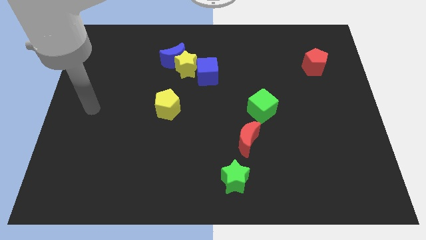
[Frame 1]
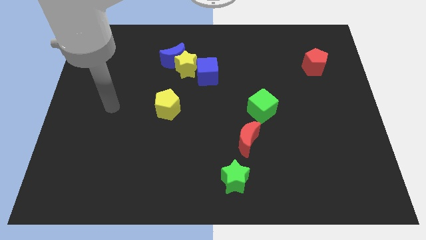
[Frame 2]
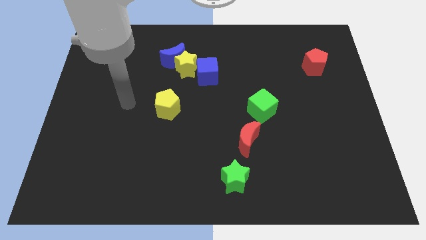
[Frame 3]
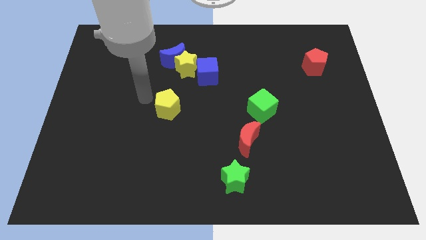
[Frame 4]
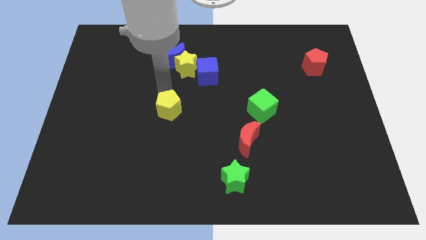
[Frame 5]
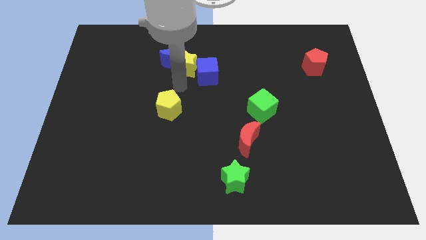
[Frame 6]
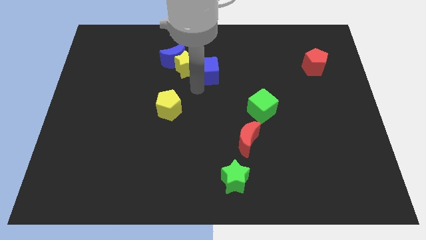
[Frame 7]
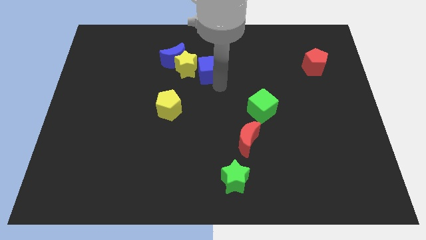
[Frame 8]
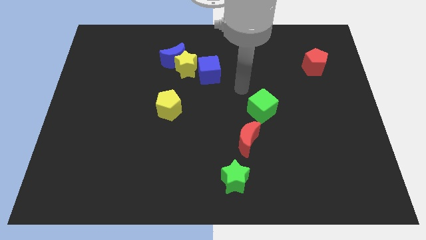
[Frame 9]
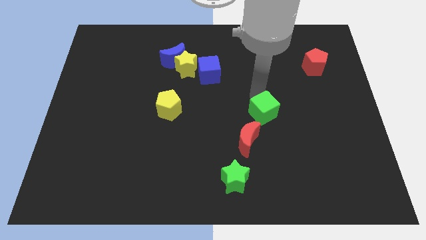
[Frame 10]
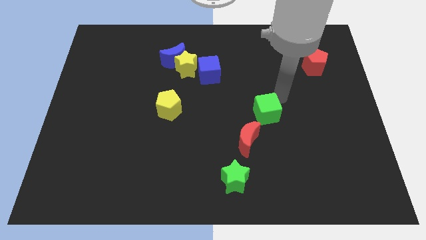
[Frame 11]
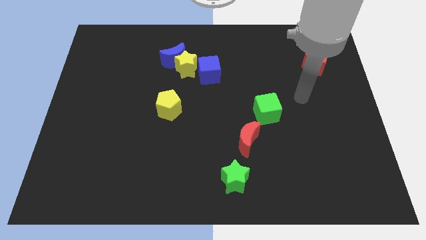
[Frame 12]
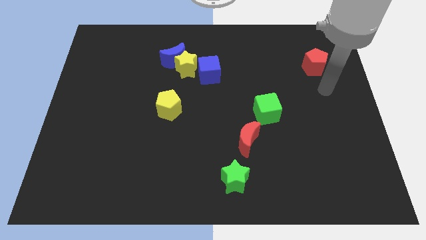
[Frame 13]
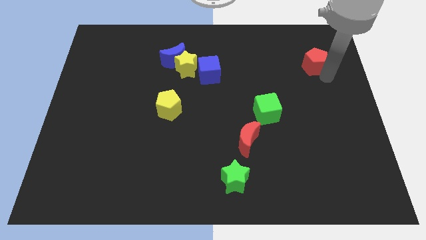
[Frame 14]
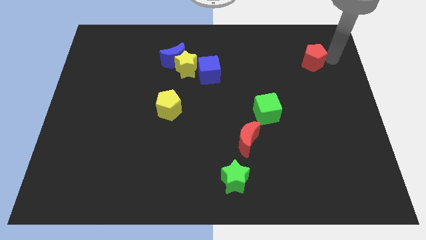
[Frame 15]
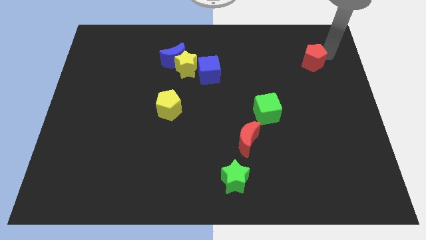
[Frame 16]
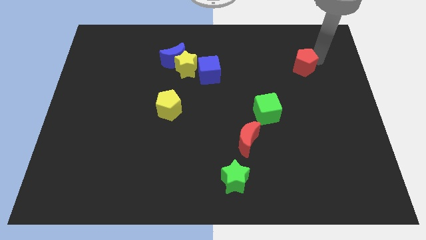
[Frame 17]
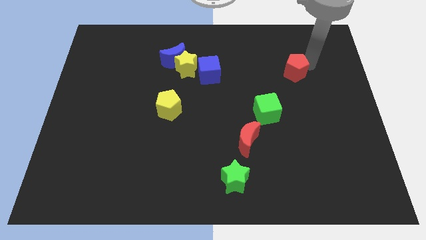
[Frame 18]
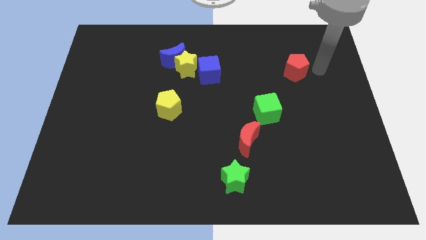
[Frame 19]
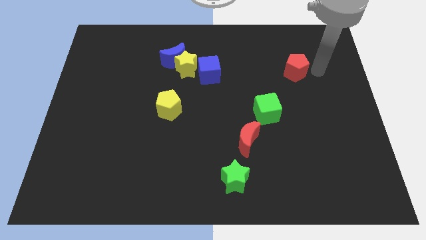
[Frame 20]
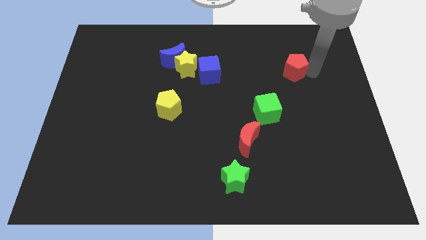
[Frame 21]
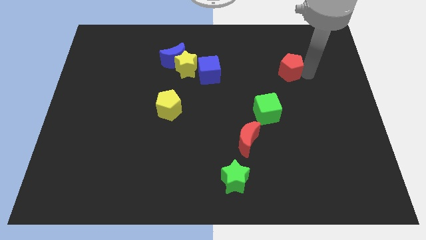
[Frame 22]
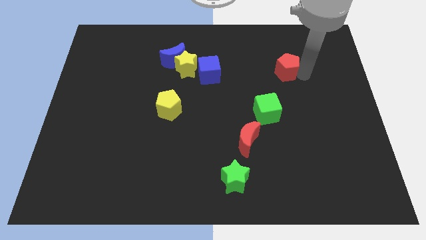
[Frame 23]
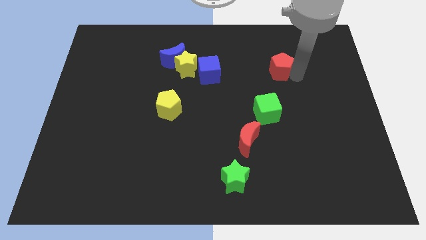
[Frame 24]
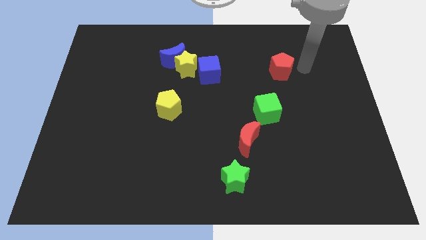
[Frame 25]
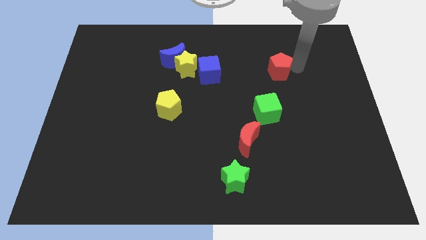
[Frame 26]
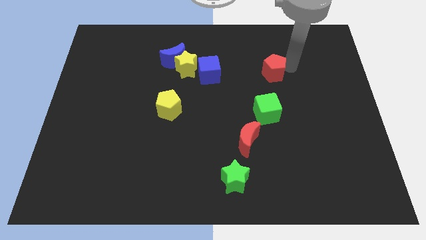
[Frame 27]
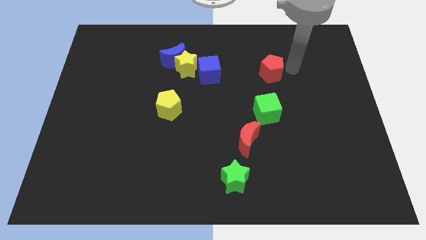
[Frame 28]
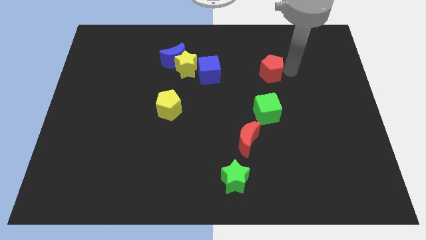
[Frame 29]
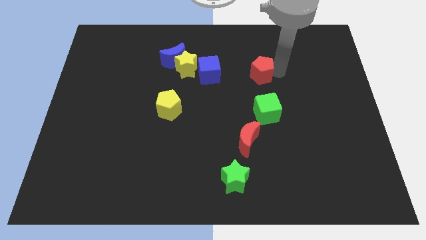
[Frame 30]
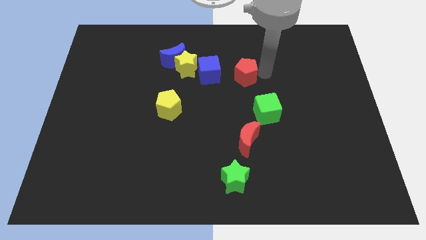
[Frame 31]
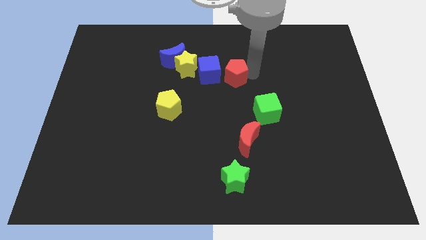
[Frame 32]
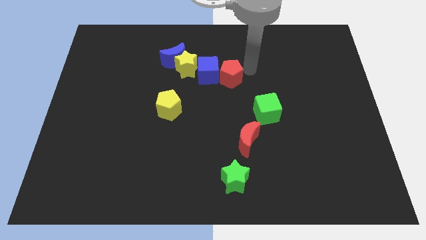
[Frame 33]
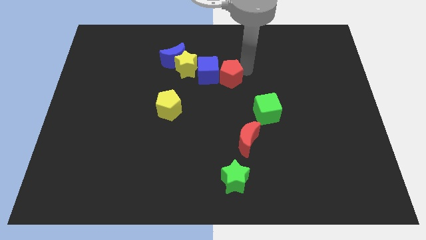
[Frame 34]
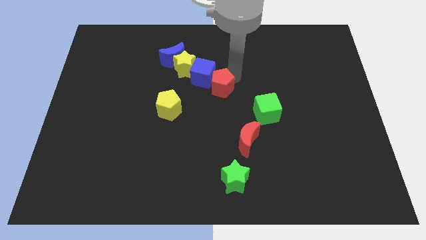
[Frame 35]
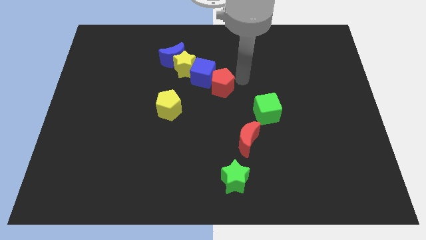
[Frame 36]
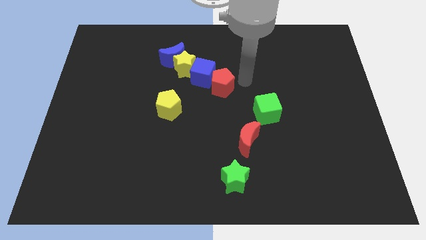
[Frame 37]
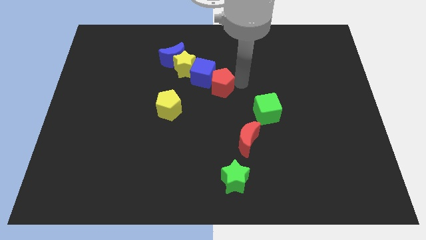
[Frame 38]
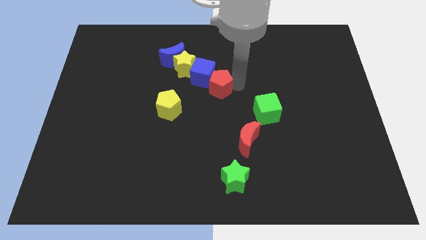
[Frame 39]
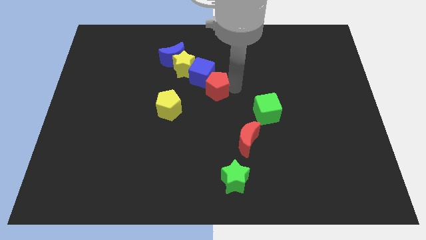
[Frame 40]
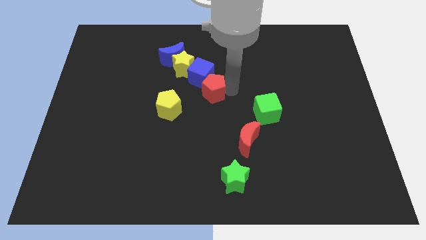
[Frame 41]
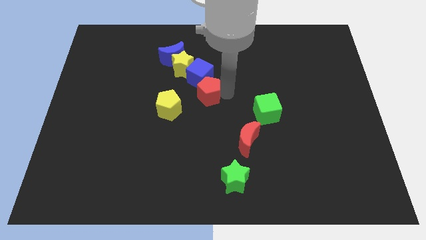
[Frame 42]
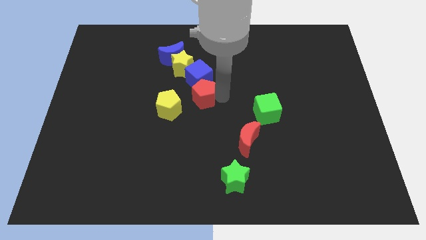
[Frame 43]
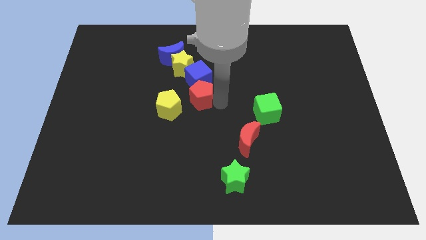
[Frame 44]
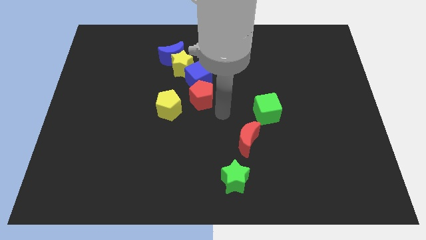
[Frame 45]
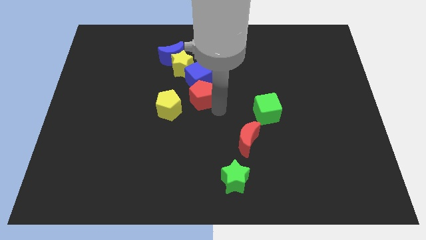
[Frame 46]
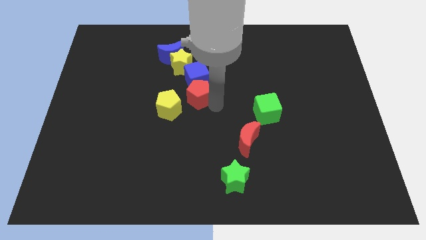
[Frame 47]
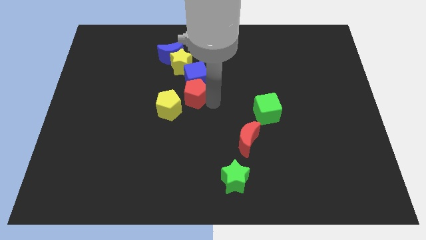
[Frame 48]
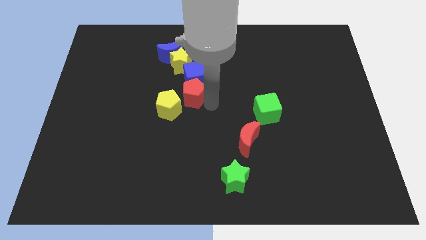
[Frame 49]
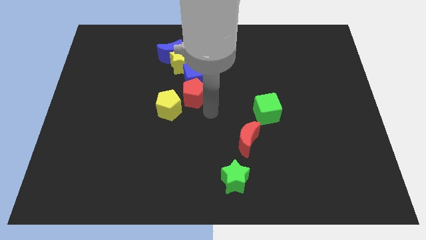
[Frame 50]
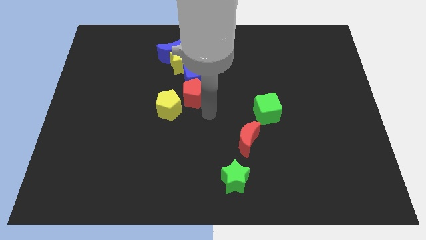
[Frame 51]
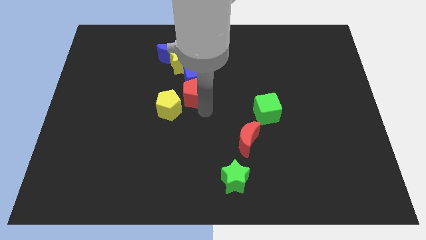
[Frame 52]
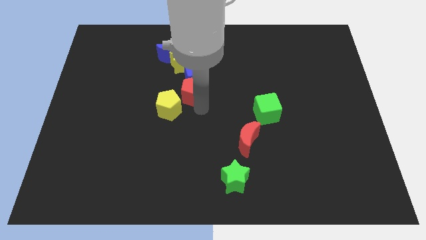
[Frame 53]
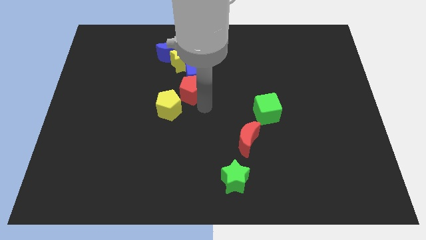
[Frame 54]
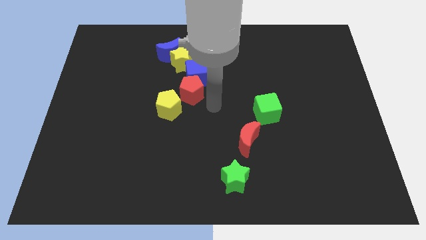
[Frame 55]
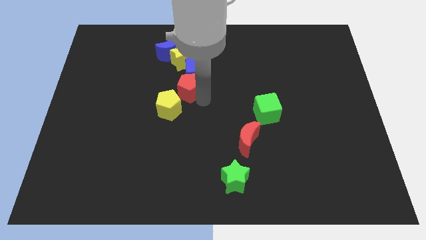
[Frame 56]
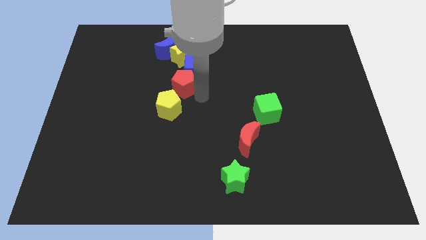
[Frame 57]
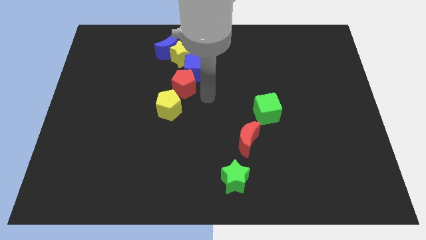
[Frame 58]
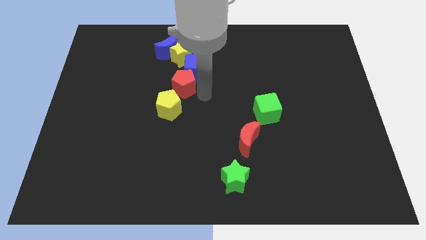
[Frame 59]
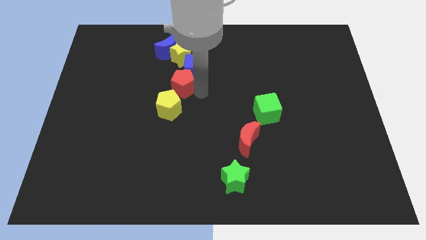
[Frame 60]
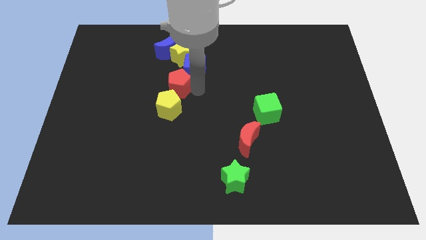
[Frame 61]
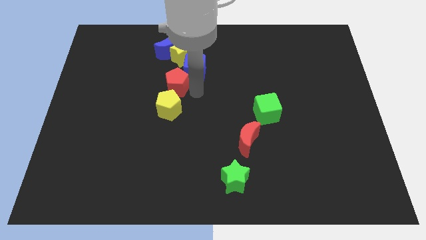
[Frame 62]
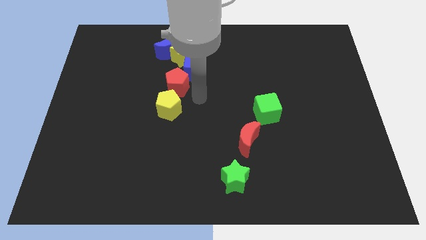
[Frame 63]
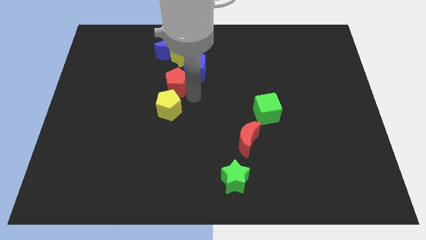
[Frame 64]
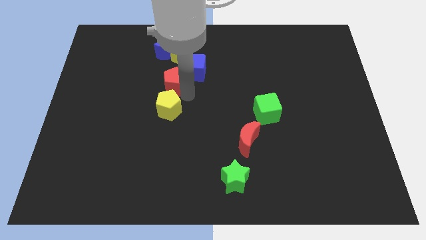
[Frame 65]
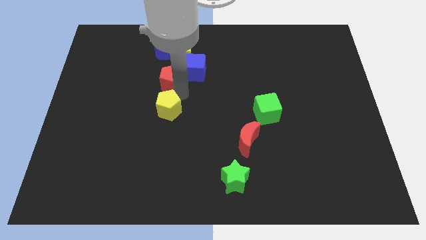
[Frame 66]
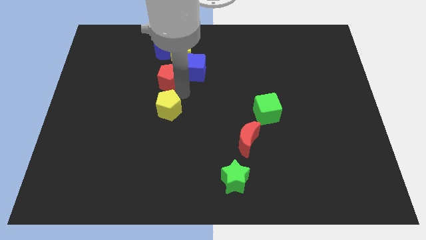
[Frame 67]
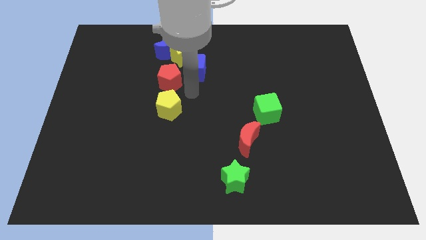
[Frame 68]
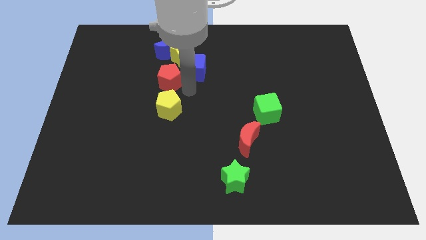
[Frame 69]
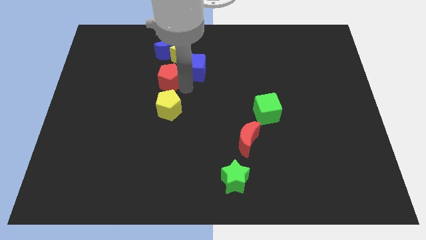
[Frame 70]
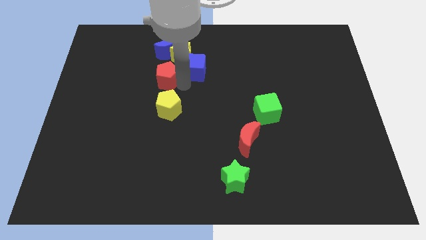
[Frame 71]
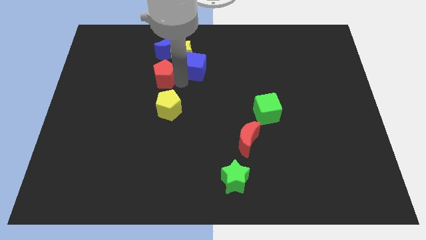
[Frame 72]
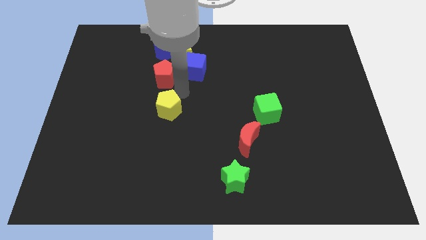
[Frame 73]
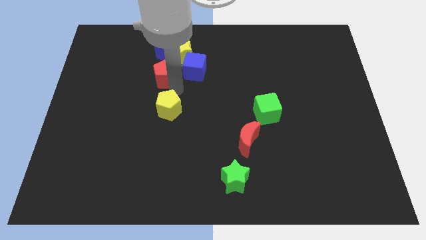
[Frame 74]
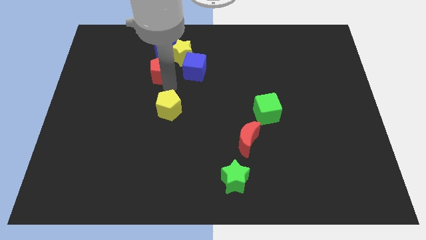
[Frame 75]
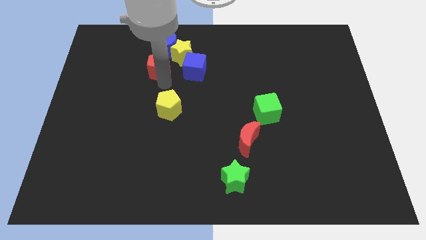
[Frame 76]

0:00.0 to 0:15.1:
slide the red pentagon to the left side of the yellow star

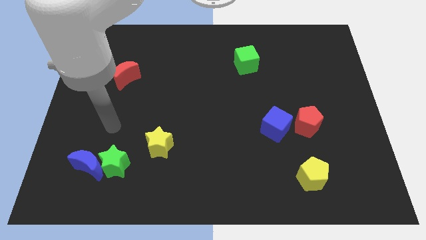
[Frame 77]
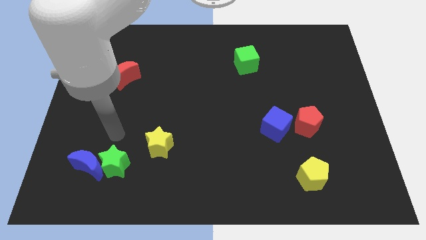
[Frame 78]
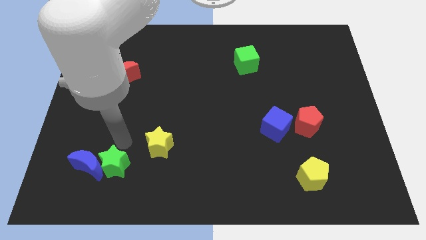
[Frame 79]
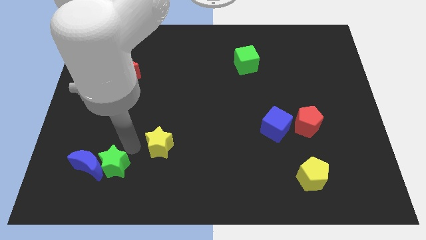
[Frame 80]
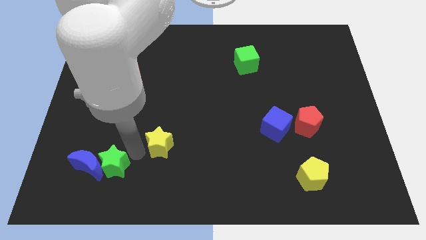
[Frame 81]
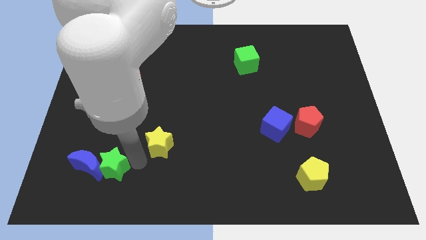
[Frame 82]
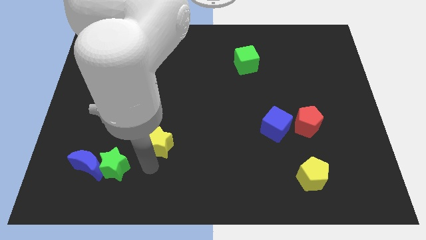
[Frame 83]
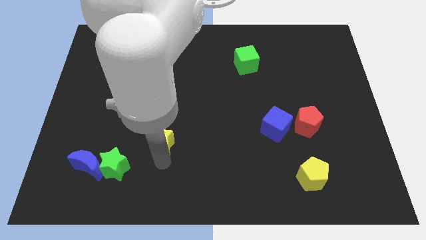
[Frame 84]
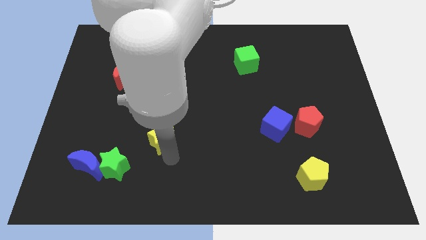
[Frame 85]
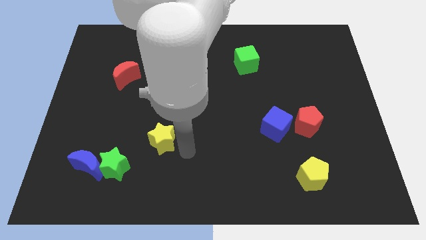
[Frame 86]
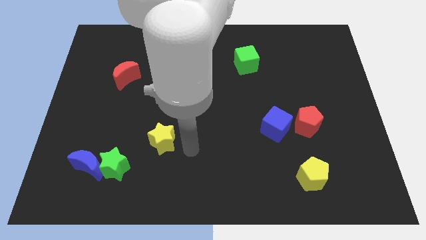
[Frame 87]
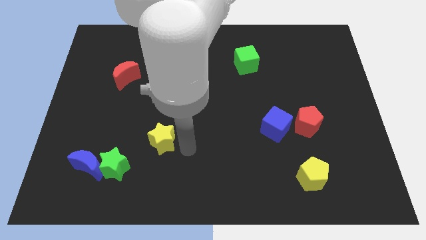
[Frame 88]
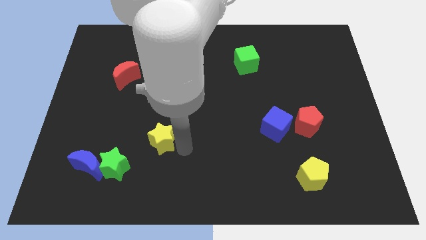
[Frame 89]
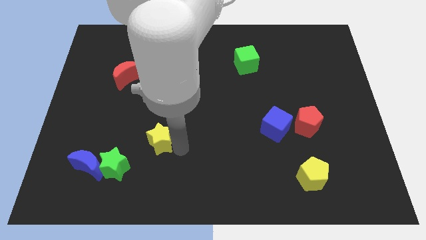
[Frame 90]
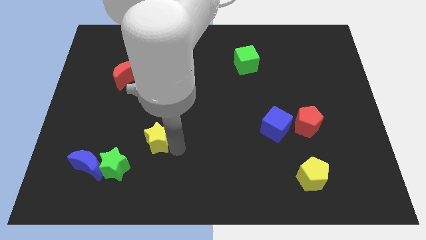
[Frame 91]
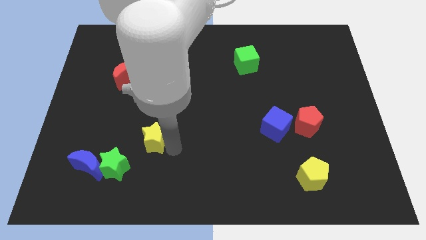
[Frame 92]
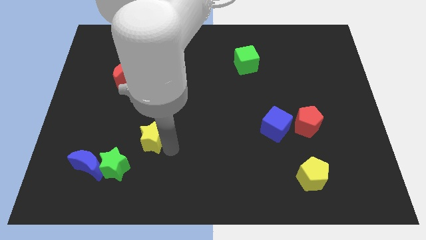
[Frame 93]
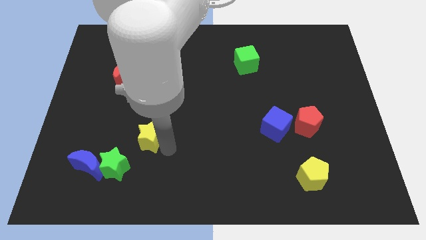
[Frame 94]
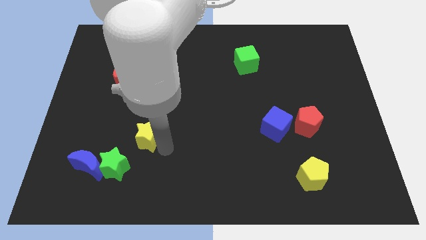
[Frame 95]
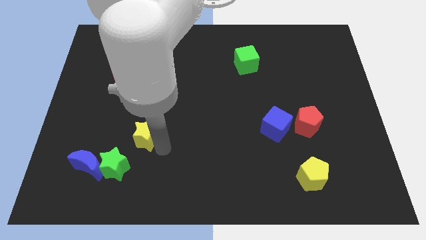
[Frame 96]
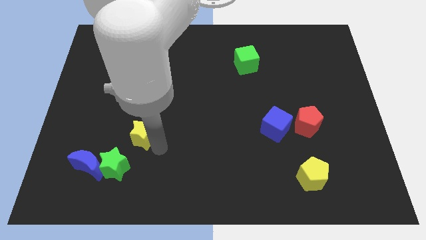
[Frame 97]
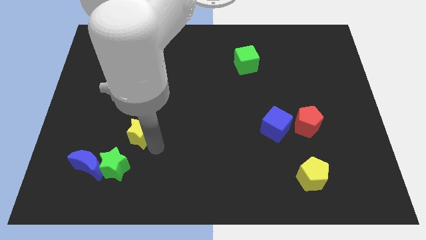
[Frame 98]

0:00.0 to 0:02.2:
push the yellow star to the top side of the green star
